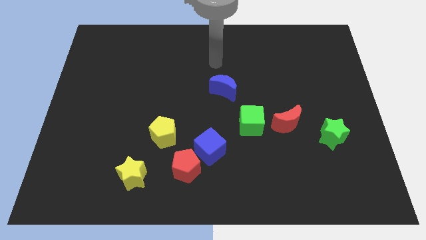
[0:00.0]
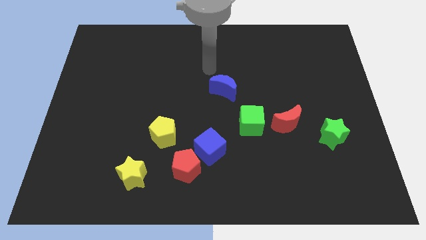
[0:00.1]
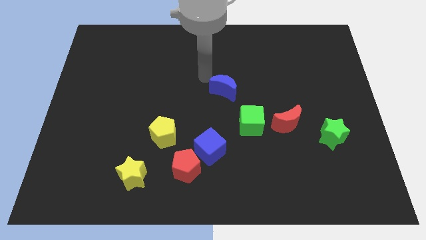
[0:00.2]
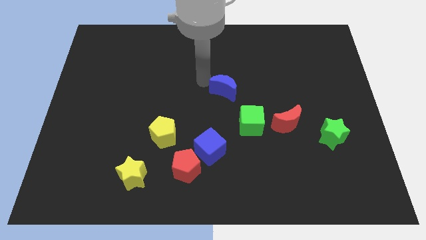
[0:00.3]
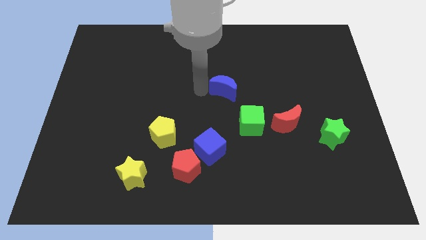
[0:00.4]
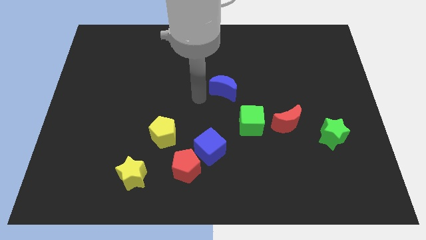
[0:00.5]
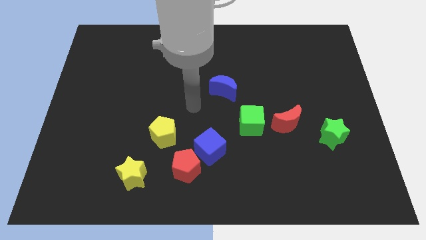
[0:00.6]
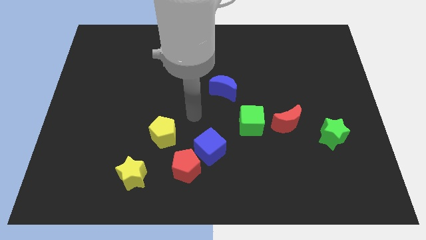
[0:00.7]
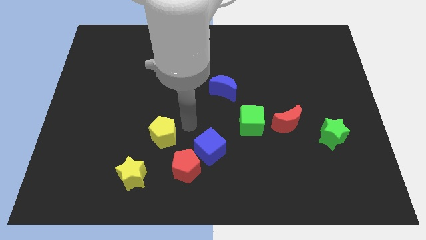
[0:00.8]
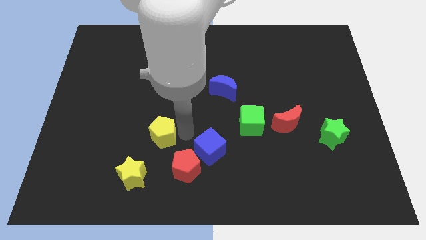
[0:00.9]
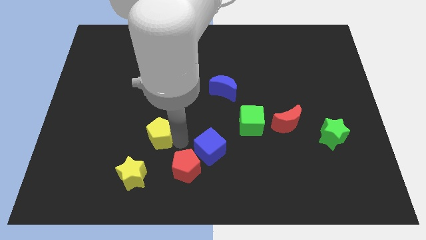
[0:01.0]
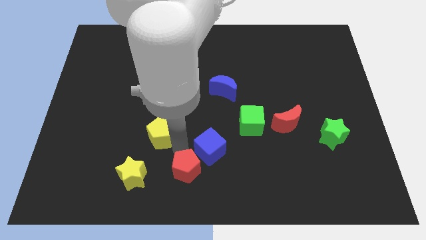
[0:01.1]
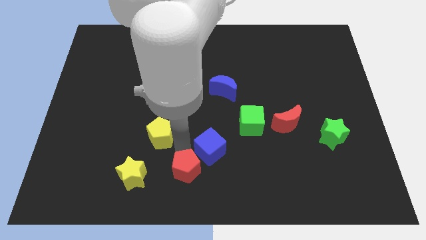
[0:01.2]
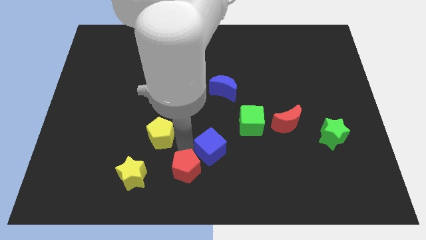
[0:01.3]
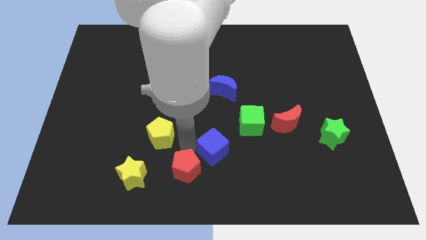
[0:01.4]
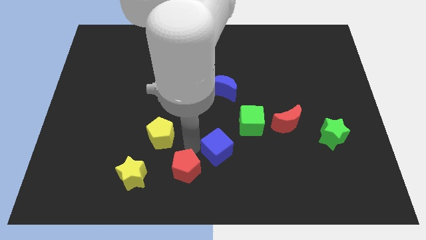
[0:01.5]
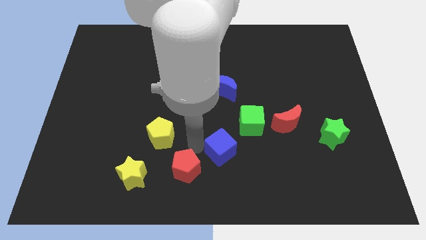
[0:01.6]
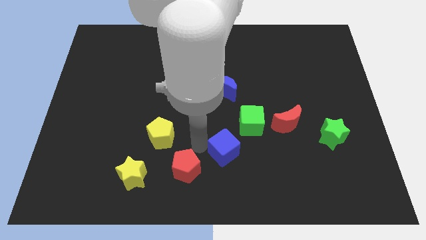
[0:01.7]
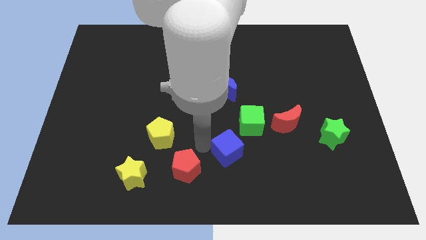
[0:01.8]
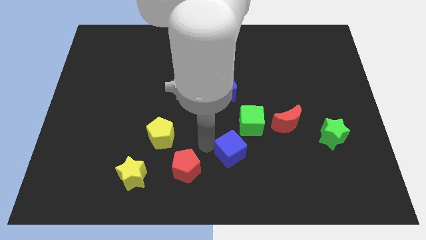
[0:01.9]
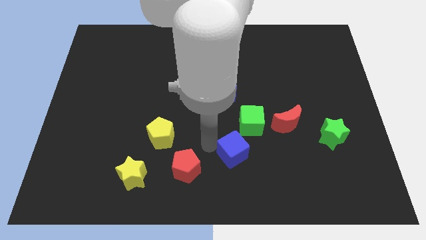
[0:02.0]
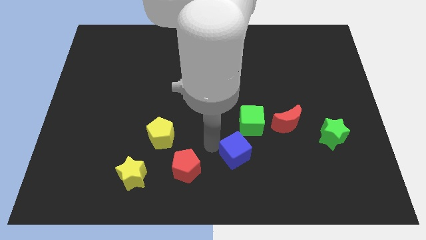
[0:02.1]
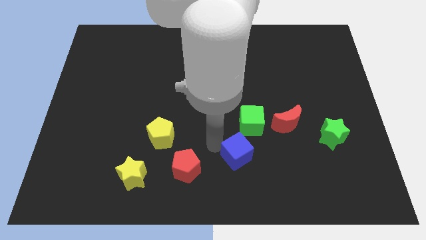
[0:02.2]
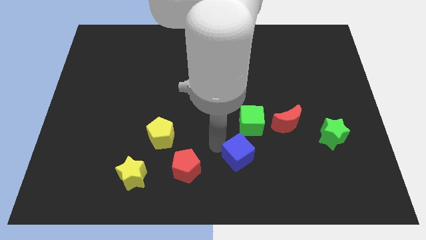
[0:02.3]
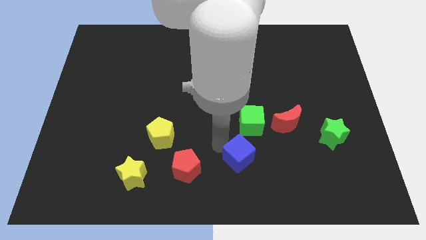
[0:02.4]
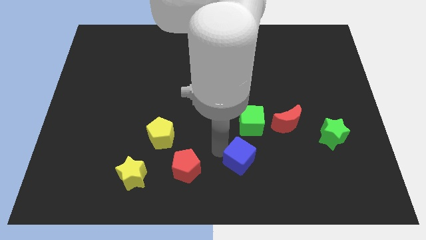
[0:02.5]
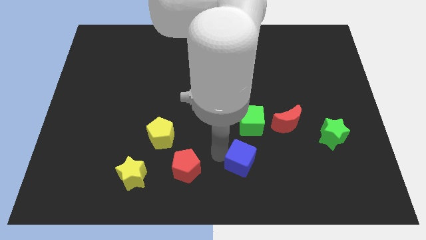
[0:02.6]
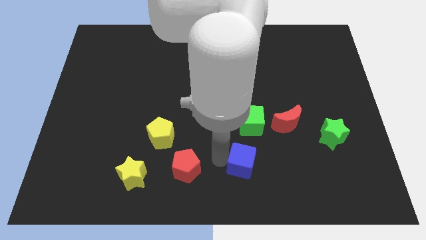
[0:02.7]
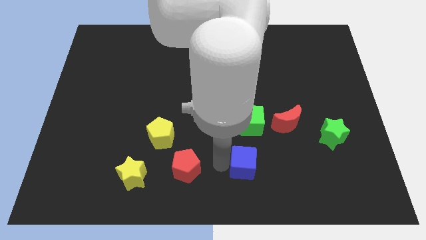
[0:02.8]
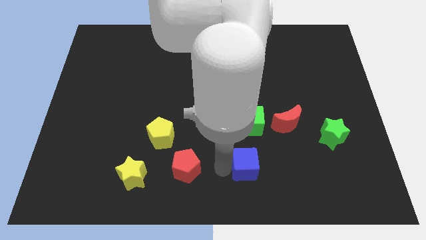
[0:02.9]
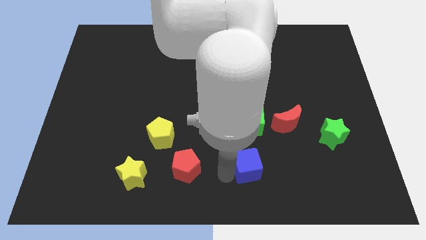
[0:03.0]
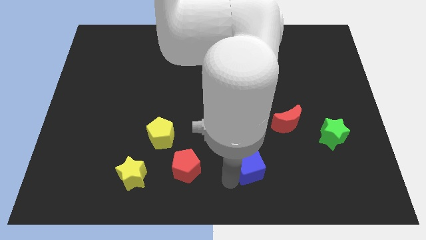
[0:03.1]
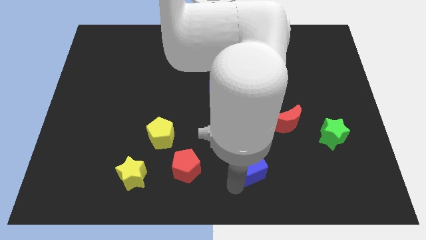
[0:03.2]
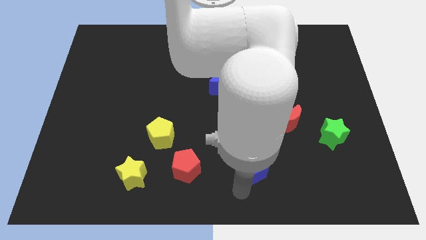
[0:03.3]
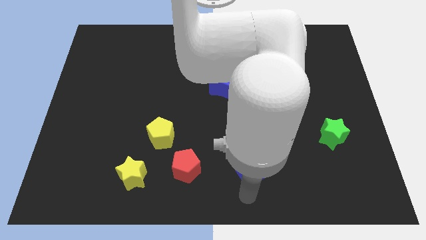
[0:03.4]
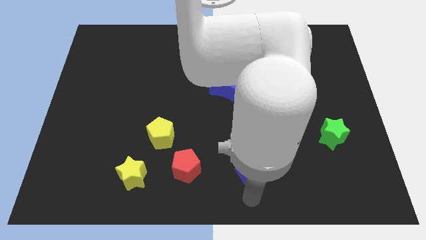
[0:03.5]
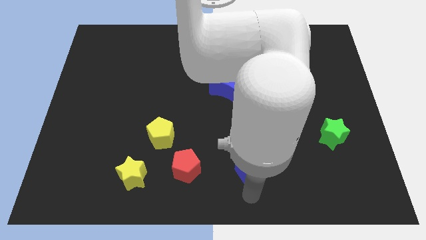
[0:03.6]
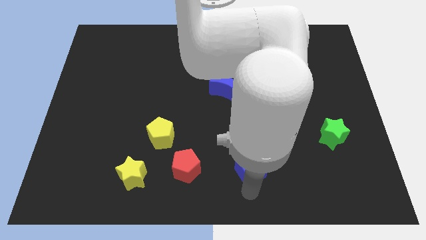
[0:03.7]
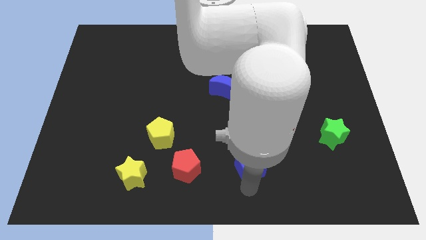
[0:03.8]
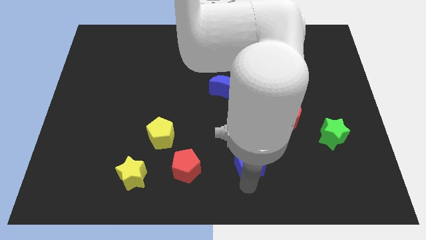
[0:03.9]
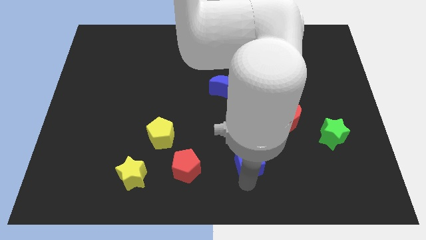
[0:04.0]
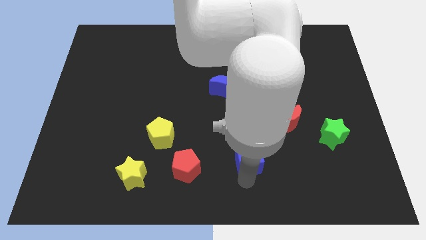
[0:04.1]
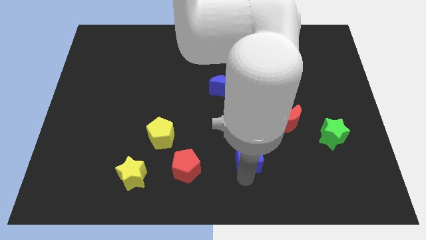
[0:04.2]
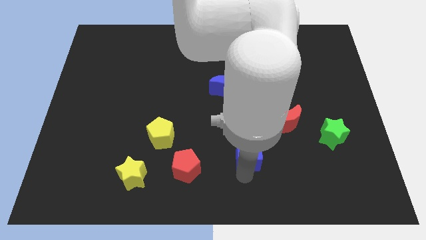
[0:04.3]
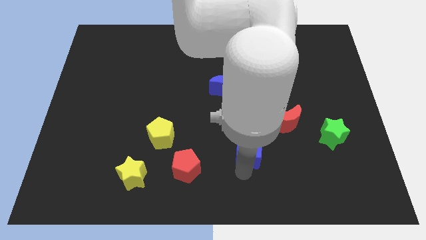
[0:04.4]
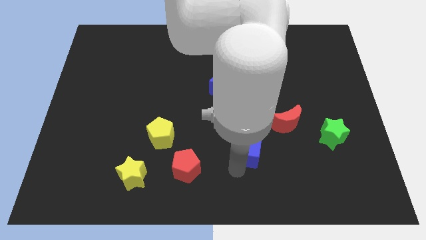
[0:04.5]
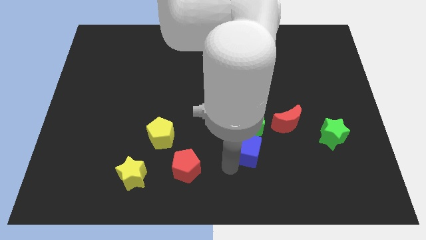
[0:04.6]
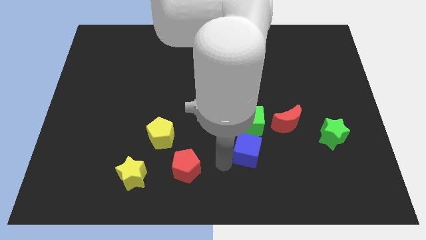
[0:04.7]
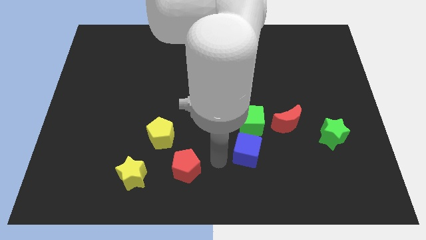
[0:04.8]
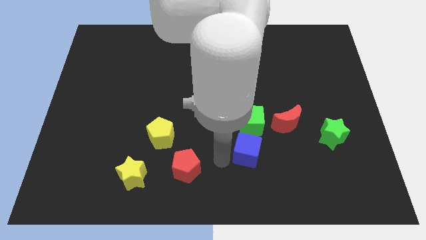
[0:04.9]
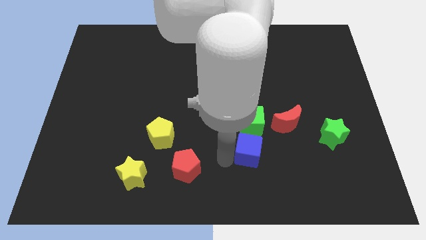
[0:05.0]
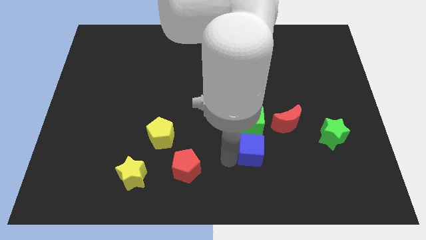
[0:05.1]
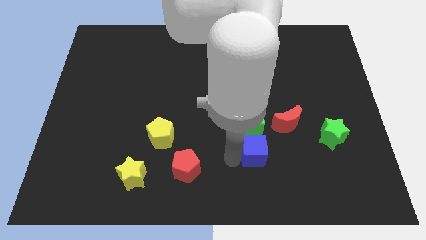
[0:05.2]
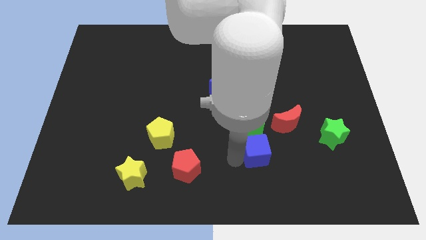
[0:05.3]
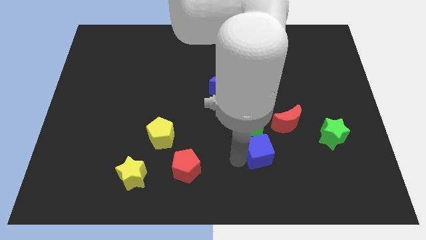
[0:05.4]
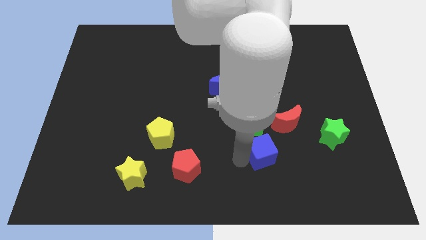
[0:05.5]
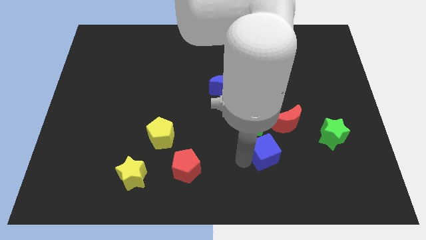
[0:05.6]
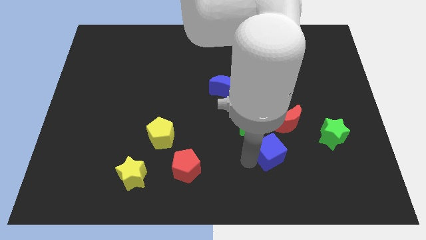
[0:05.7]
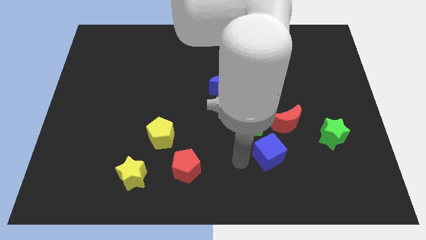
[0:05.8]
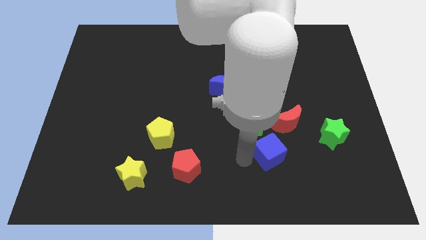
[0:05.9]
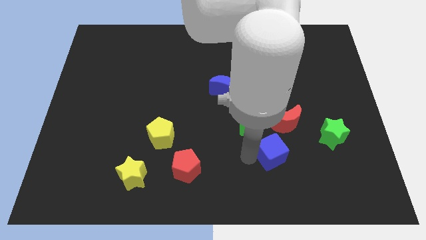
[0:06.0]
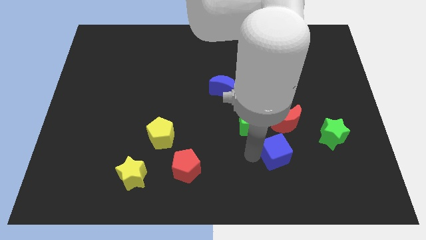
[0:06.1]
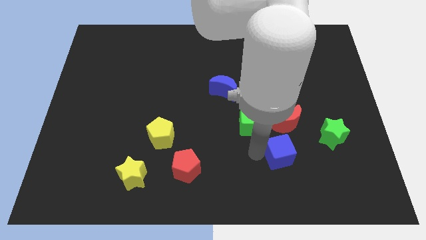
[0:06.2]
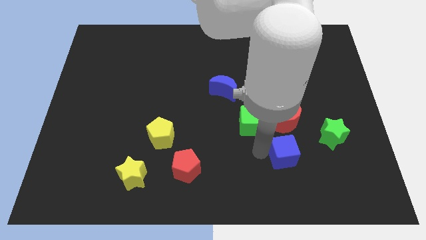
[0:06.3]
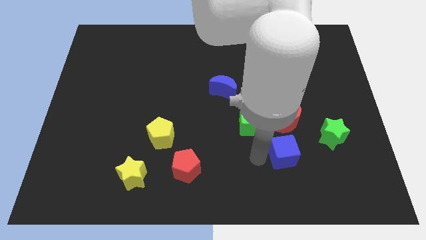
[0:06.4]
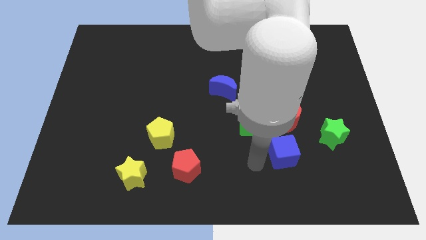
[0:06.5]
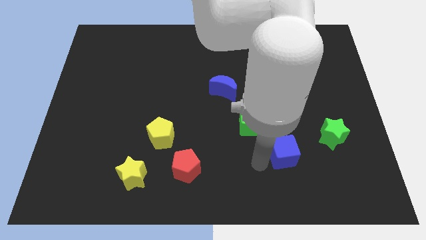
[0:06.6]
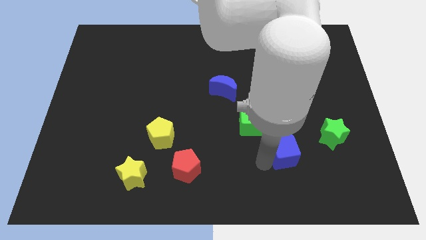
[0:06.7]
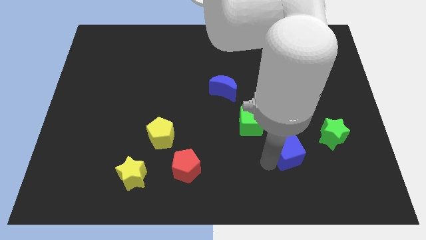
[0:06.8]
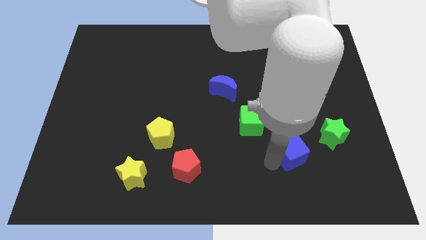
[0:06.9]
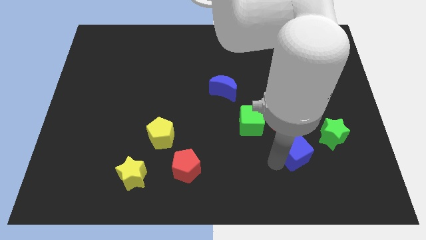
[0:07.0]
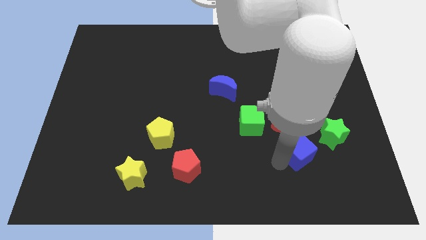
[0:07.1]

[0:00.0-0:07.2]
put the blue cube to the bottom right of the red moon

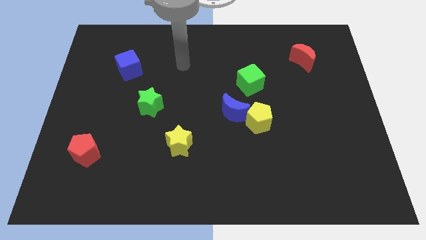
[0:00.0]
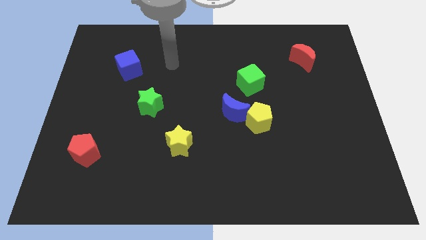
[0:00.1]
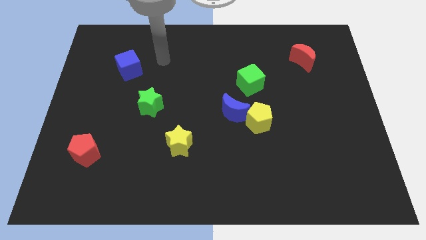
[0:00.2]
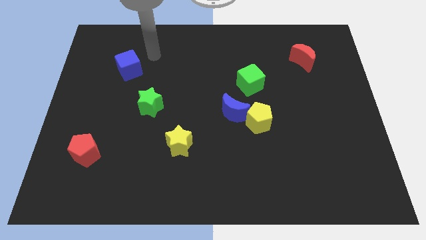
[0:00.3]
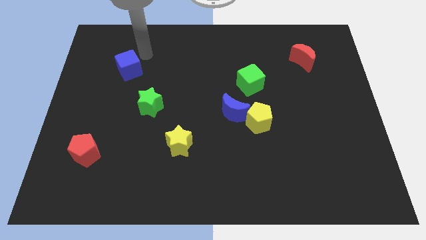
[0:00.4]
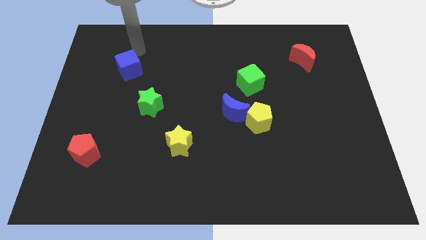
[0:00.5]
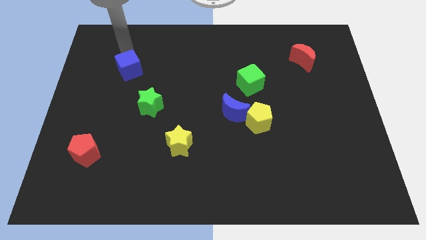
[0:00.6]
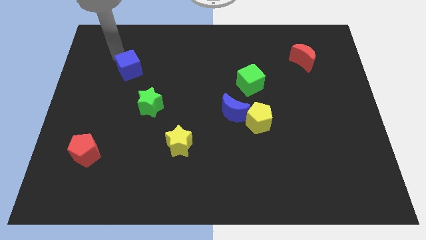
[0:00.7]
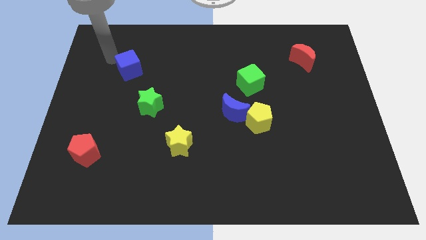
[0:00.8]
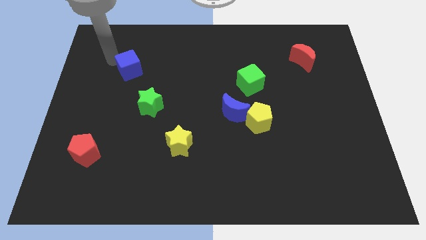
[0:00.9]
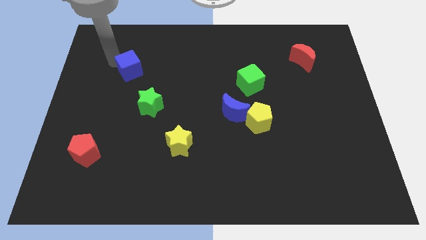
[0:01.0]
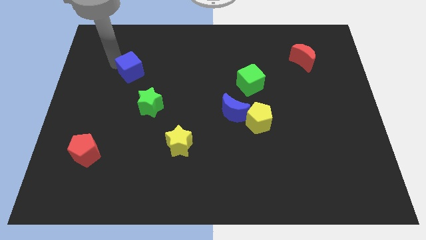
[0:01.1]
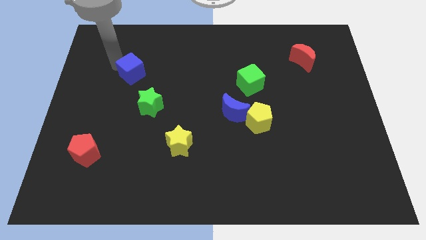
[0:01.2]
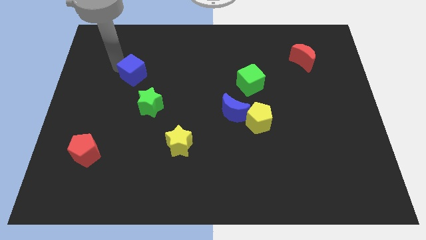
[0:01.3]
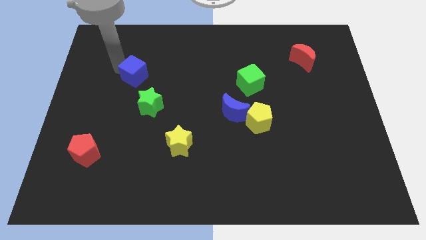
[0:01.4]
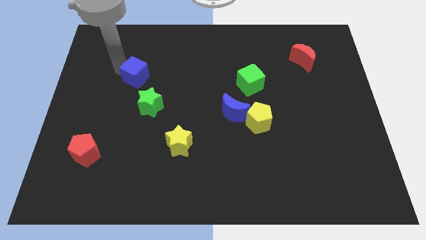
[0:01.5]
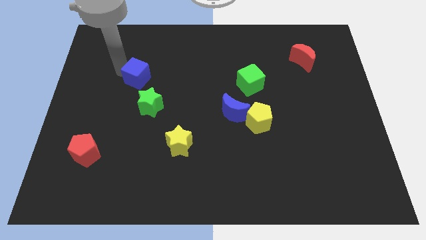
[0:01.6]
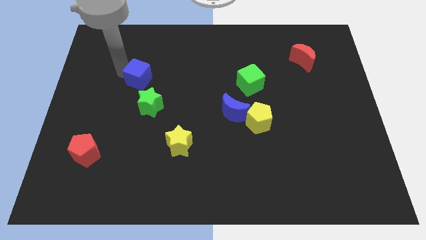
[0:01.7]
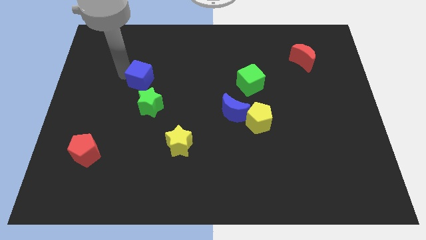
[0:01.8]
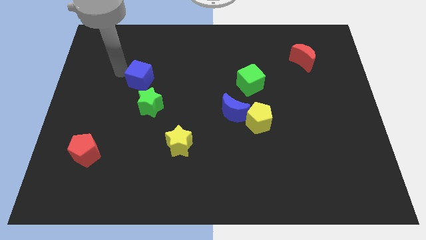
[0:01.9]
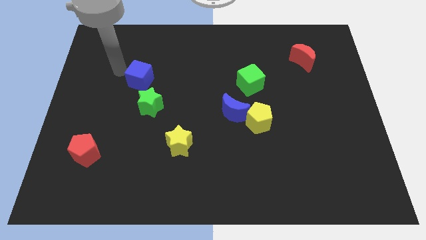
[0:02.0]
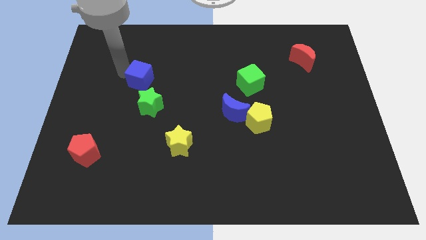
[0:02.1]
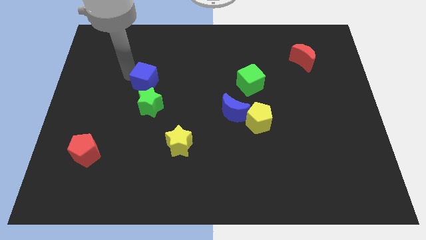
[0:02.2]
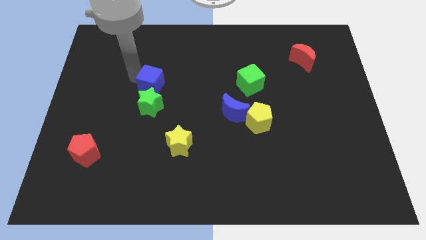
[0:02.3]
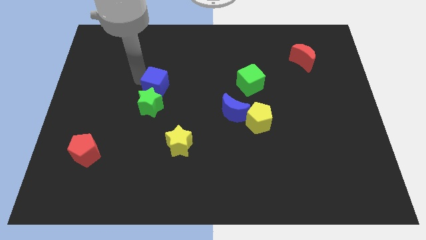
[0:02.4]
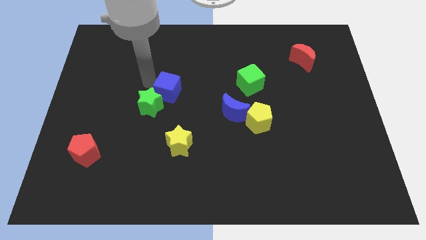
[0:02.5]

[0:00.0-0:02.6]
push the blue cube to the right side of the green star
